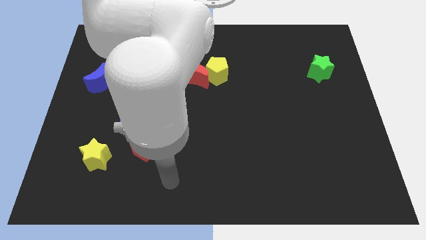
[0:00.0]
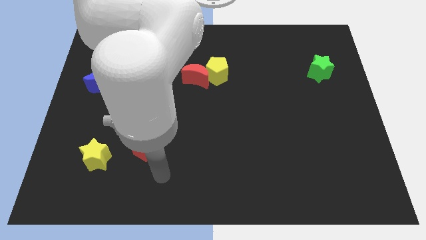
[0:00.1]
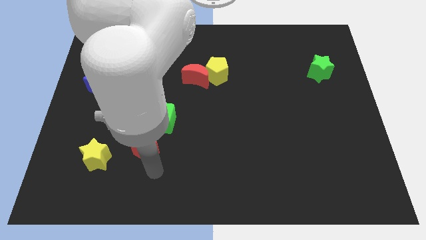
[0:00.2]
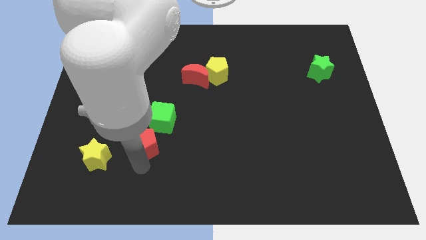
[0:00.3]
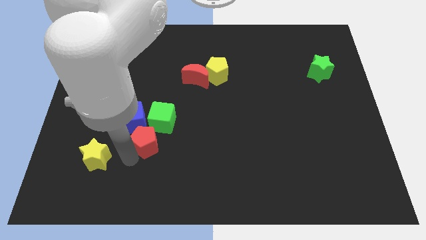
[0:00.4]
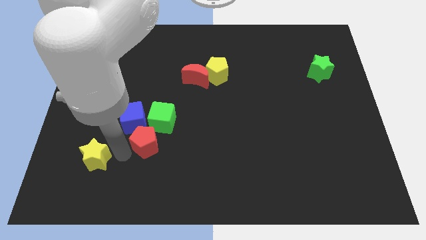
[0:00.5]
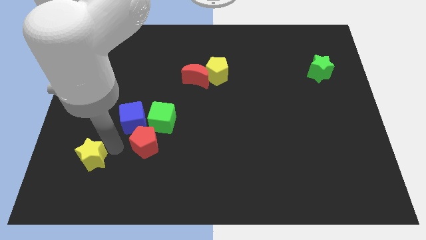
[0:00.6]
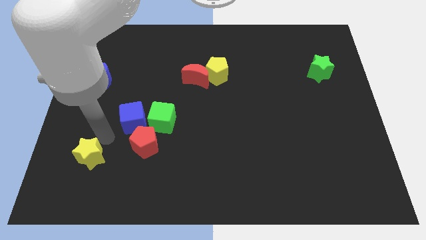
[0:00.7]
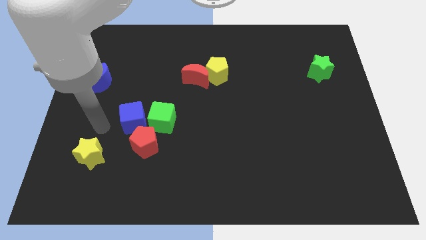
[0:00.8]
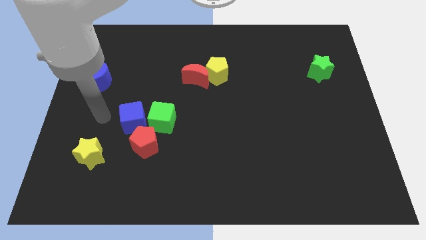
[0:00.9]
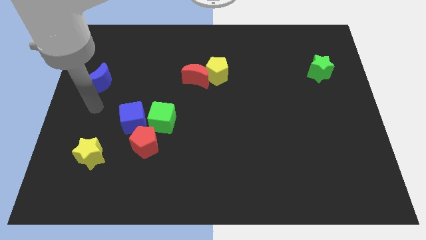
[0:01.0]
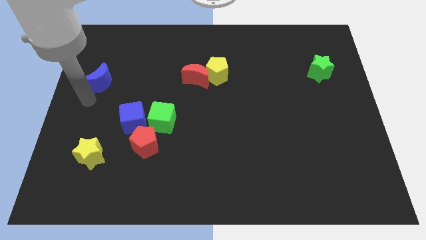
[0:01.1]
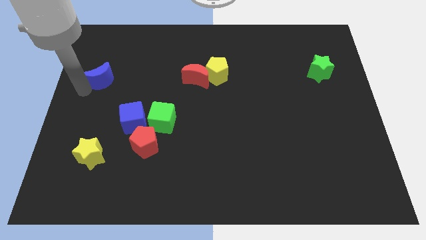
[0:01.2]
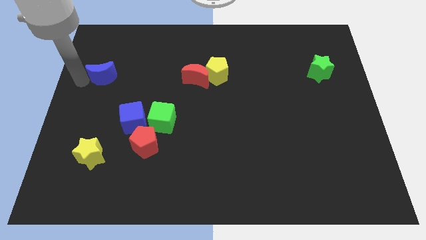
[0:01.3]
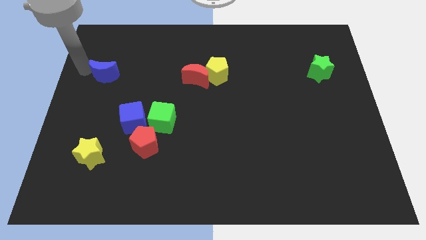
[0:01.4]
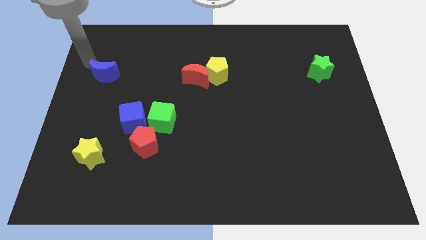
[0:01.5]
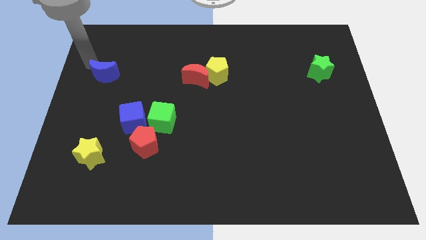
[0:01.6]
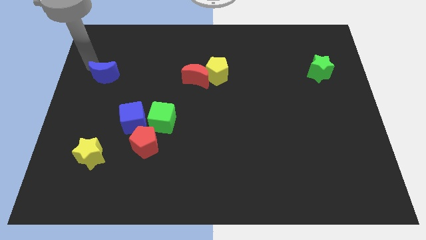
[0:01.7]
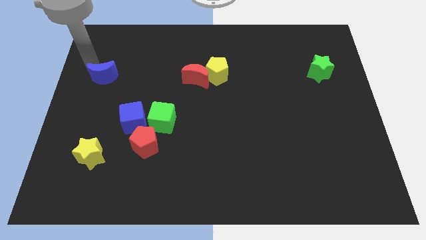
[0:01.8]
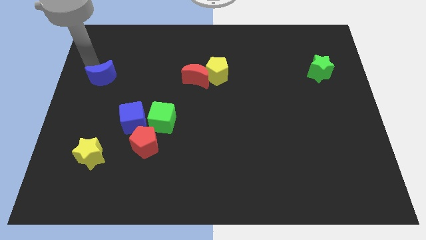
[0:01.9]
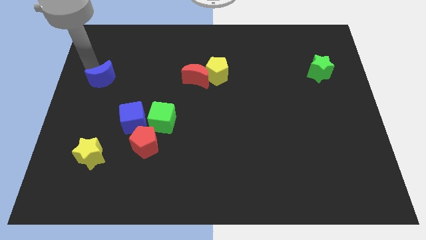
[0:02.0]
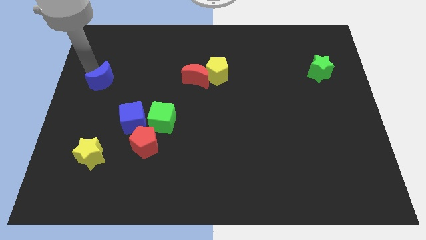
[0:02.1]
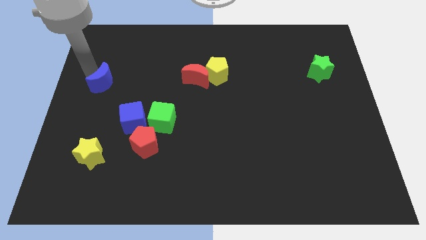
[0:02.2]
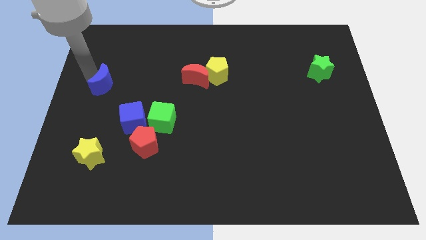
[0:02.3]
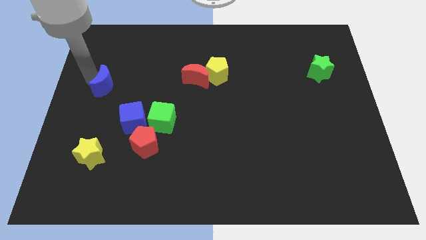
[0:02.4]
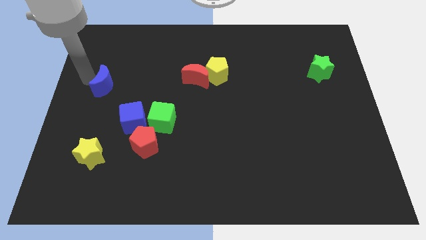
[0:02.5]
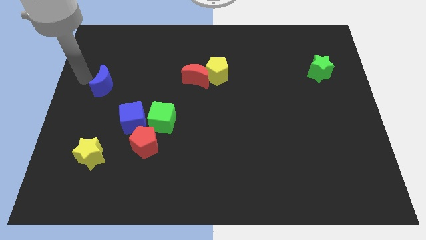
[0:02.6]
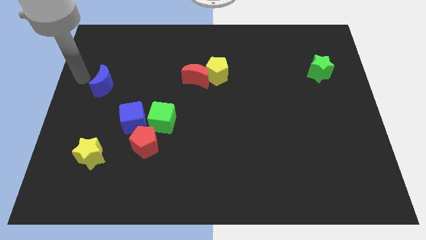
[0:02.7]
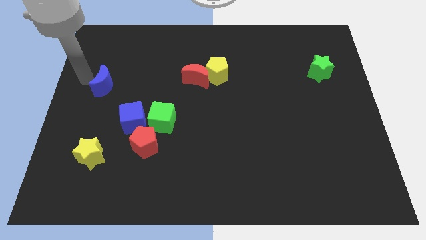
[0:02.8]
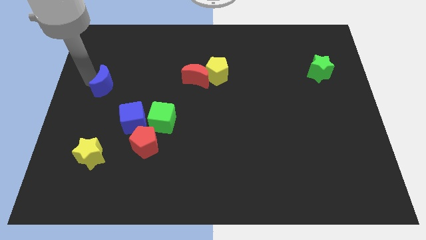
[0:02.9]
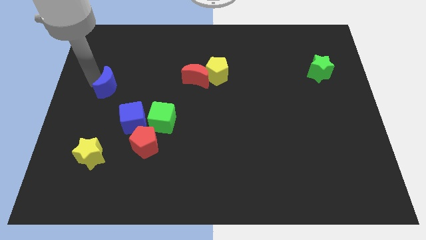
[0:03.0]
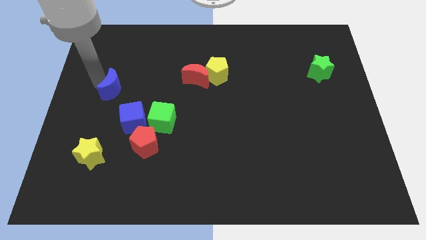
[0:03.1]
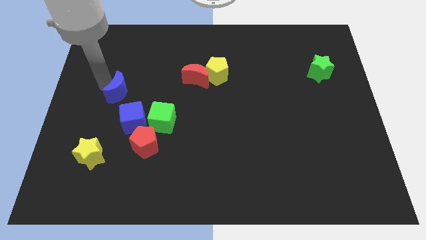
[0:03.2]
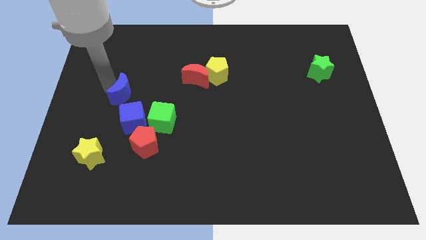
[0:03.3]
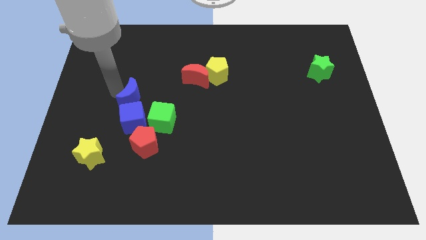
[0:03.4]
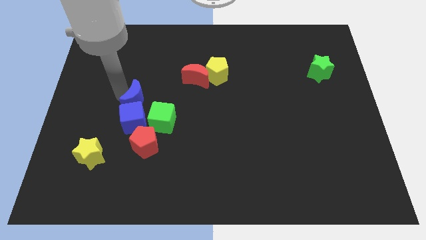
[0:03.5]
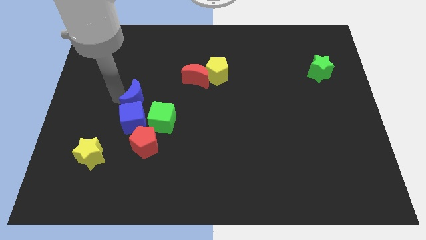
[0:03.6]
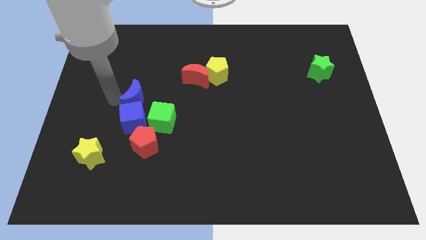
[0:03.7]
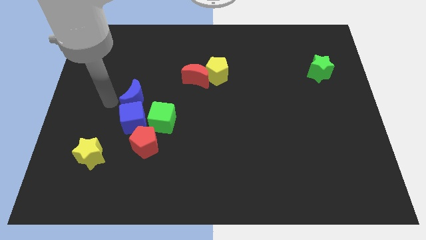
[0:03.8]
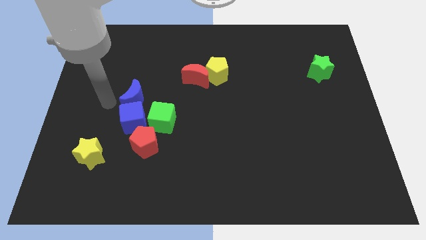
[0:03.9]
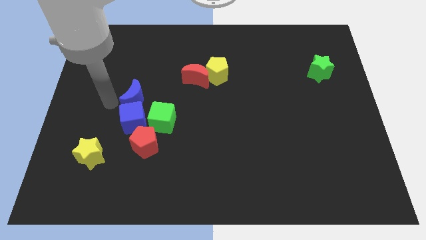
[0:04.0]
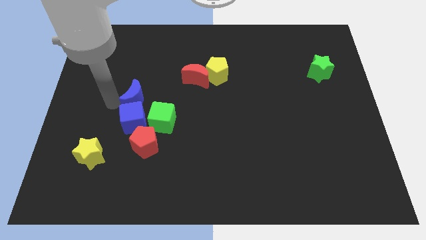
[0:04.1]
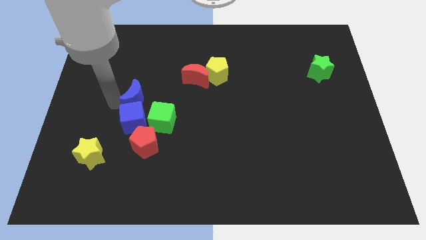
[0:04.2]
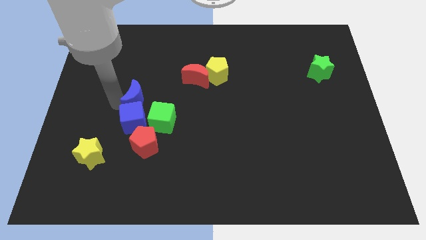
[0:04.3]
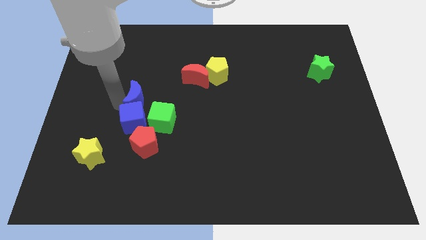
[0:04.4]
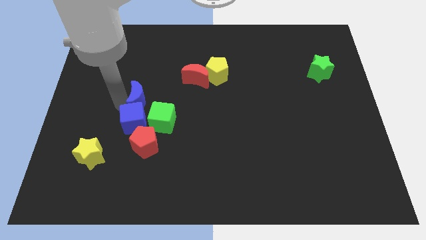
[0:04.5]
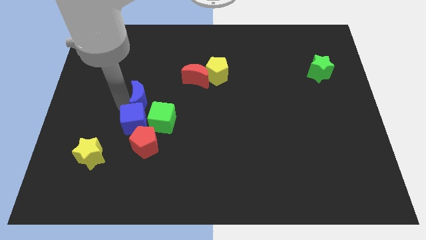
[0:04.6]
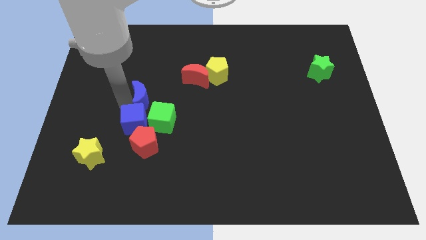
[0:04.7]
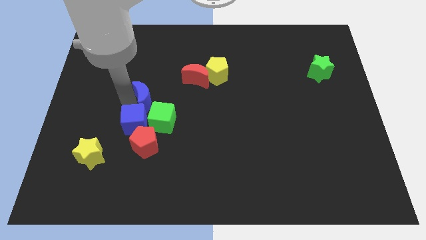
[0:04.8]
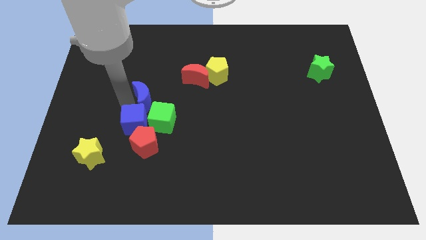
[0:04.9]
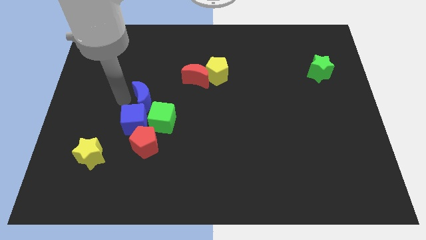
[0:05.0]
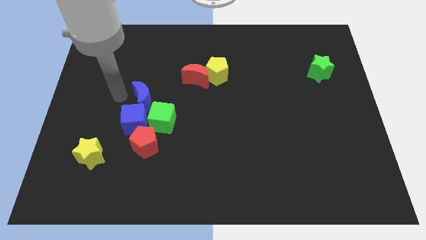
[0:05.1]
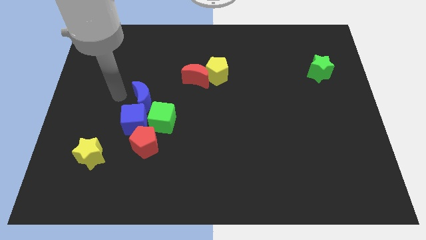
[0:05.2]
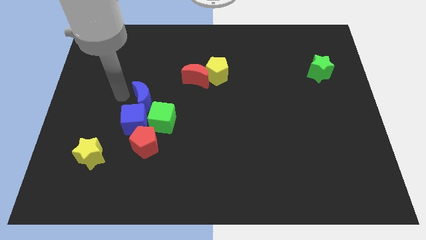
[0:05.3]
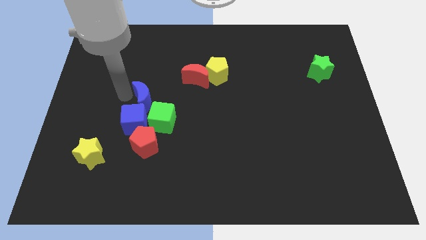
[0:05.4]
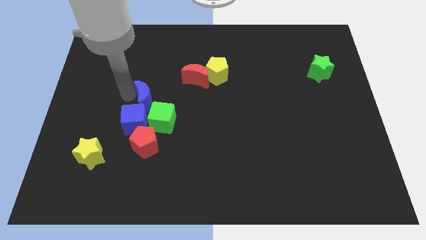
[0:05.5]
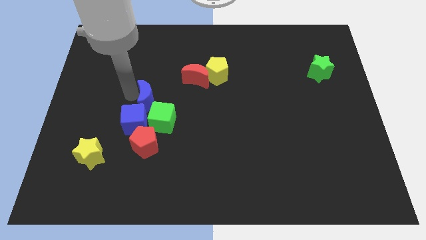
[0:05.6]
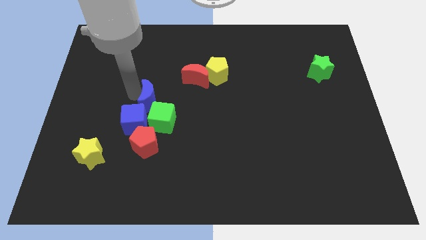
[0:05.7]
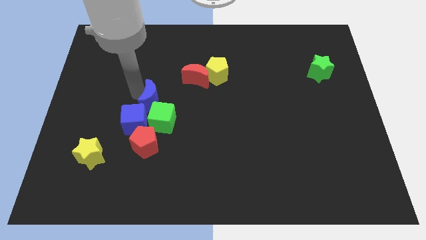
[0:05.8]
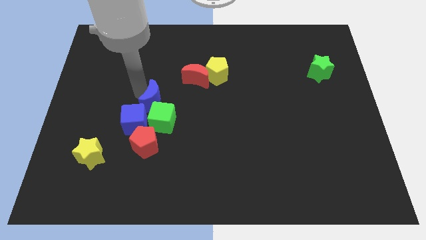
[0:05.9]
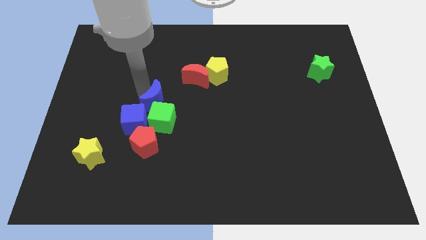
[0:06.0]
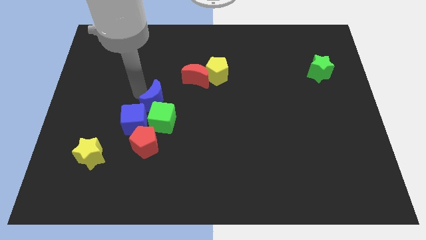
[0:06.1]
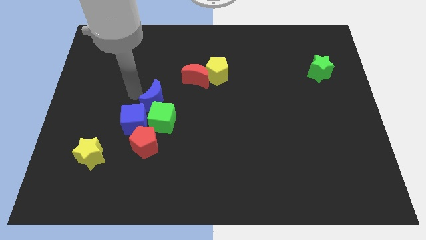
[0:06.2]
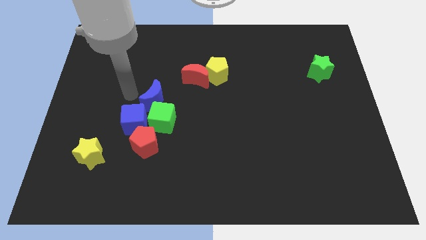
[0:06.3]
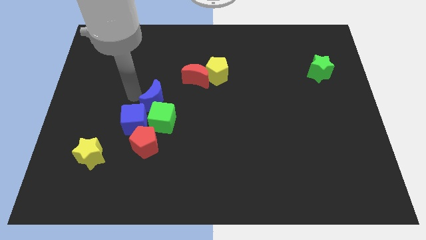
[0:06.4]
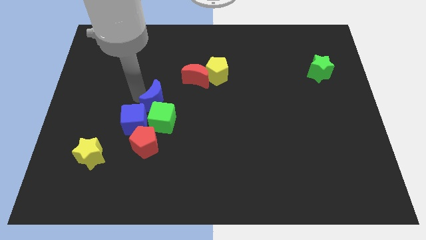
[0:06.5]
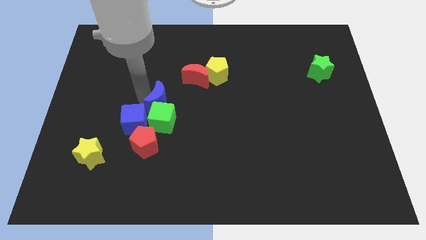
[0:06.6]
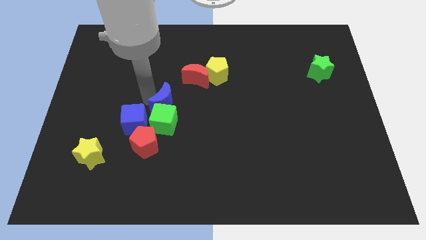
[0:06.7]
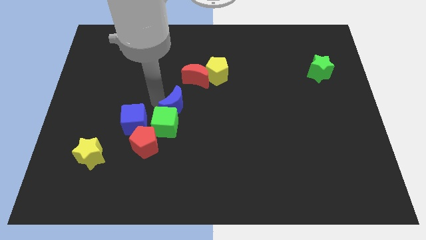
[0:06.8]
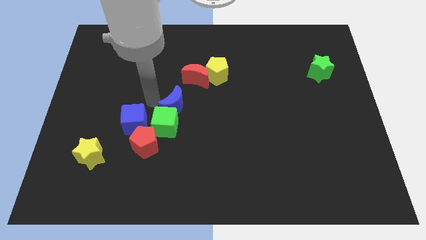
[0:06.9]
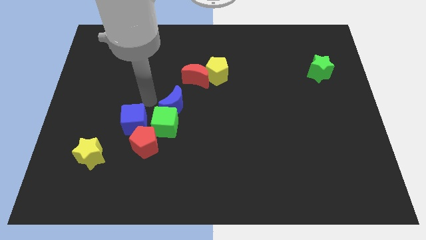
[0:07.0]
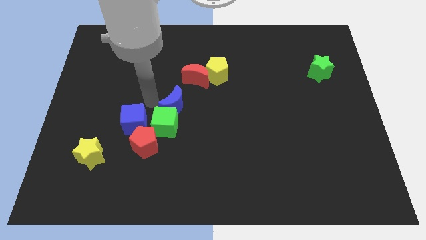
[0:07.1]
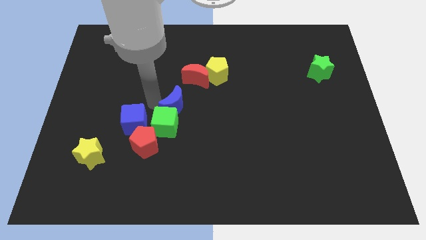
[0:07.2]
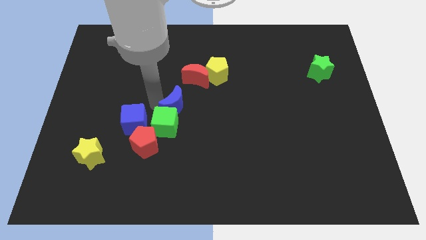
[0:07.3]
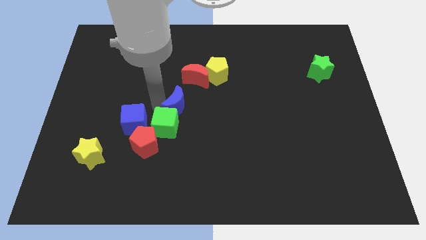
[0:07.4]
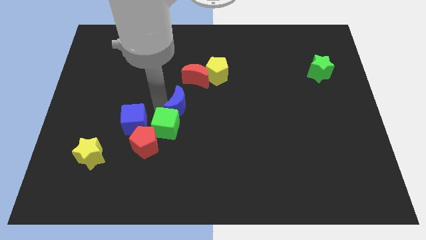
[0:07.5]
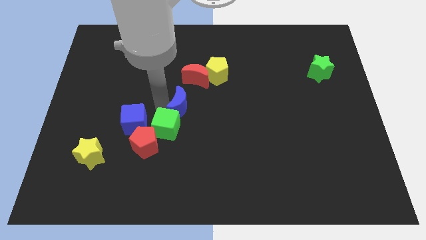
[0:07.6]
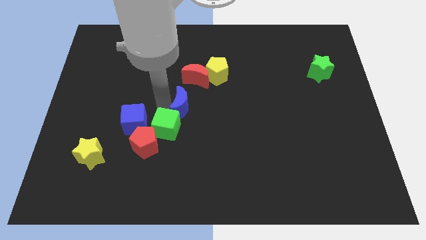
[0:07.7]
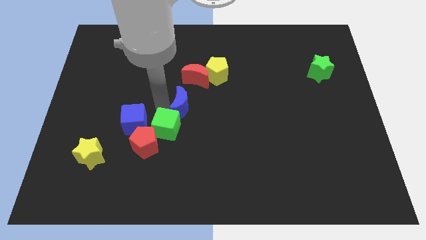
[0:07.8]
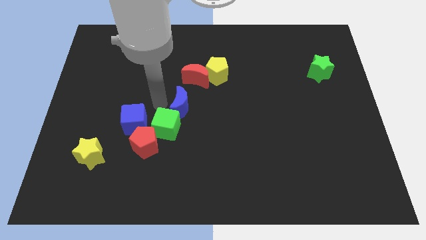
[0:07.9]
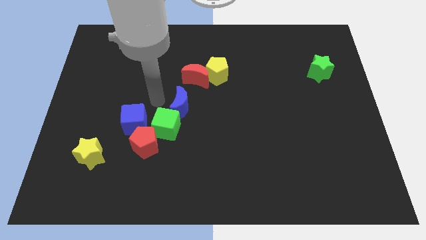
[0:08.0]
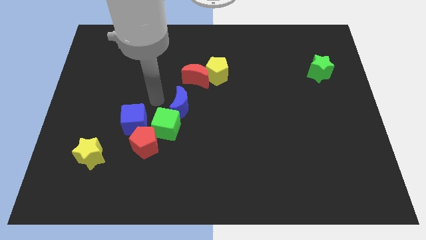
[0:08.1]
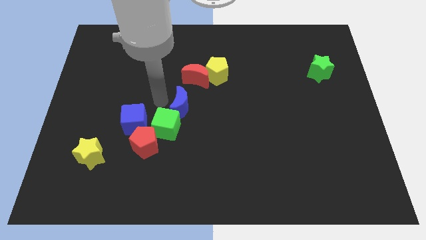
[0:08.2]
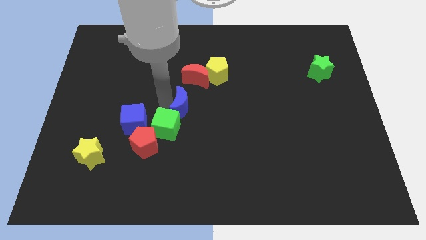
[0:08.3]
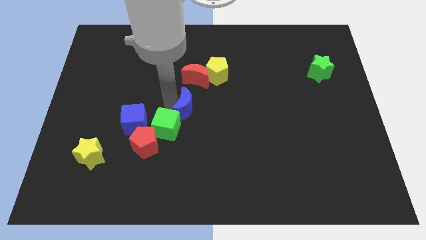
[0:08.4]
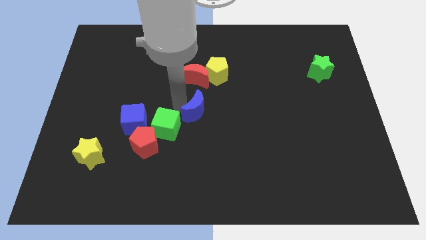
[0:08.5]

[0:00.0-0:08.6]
put the blue moon to the right side of the green cube
